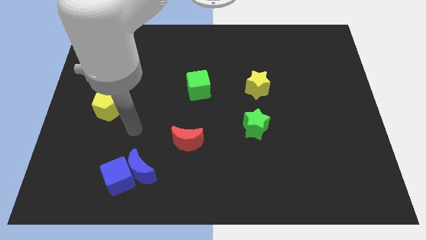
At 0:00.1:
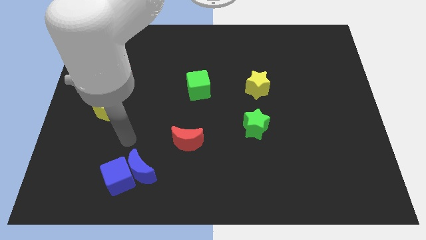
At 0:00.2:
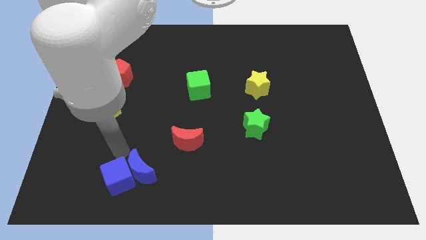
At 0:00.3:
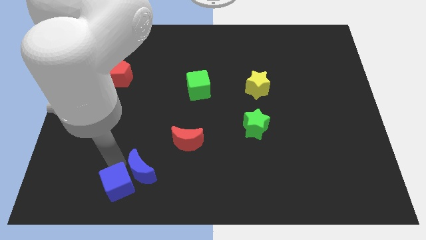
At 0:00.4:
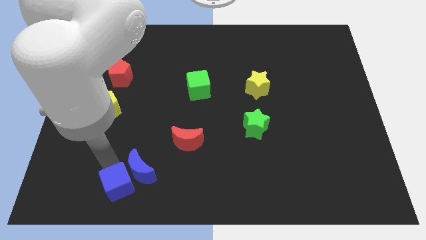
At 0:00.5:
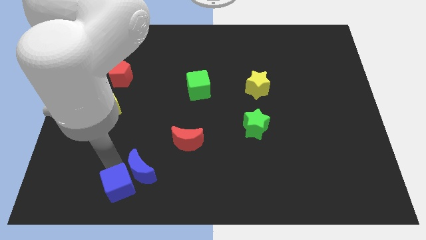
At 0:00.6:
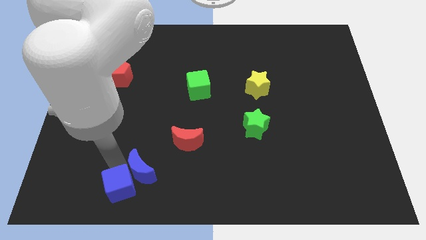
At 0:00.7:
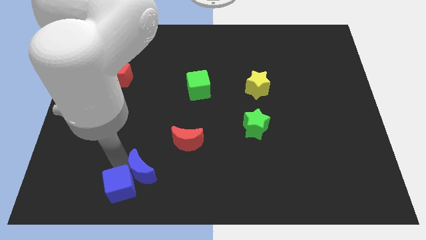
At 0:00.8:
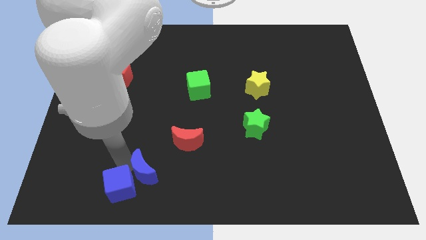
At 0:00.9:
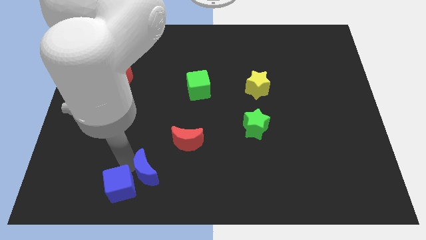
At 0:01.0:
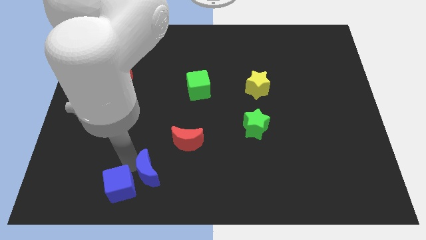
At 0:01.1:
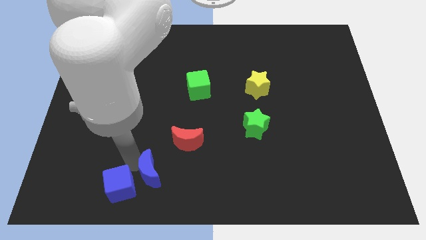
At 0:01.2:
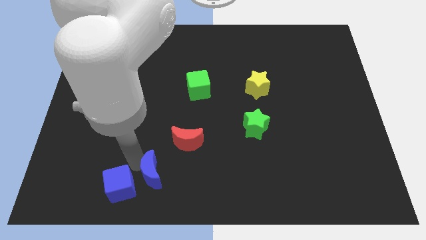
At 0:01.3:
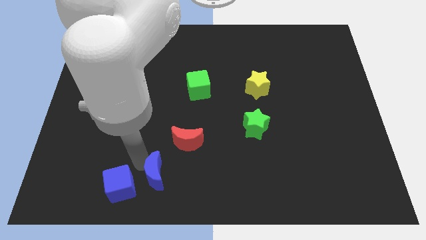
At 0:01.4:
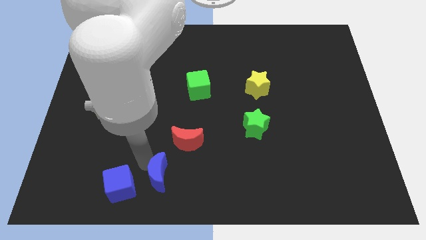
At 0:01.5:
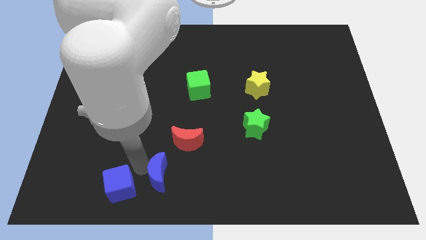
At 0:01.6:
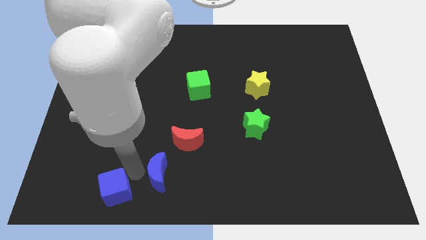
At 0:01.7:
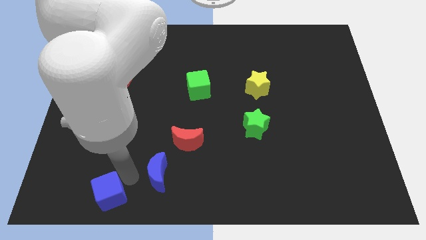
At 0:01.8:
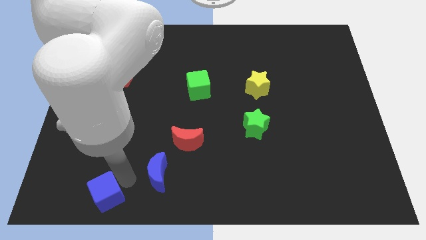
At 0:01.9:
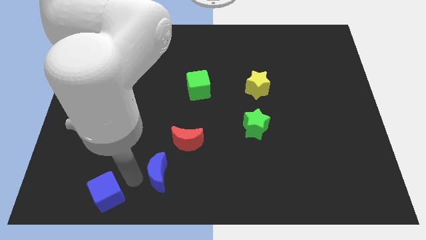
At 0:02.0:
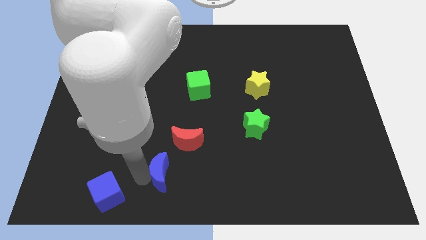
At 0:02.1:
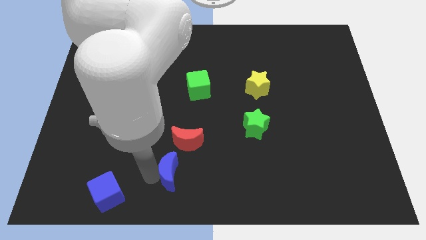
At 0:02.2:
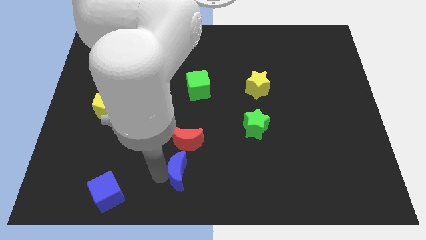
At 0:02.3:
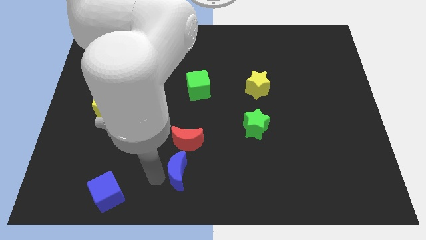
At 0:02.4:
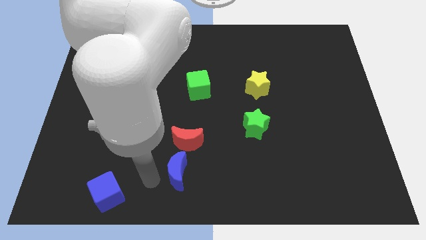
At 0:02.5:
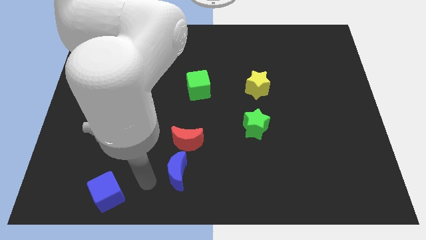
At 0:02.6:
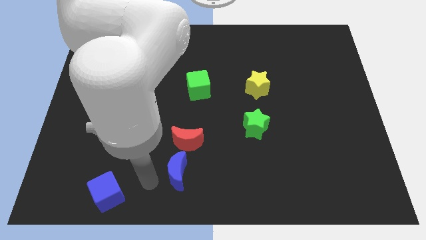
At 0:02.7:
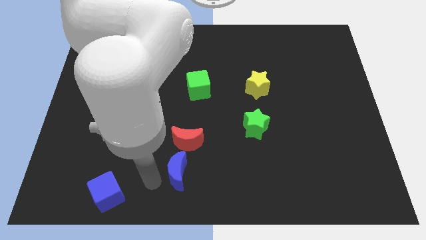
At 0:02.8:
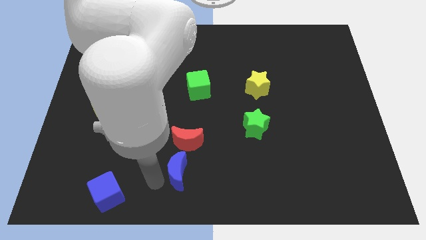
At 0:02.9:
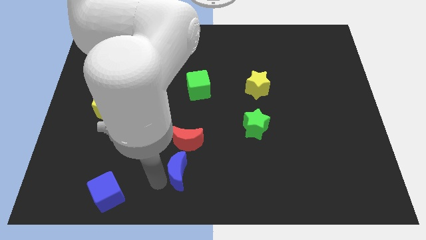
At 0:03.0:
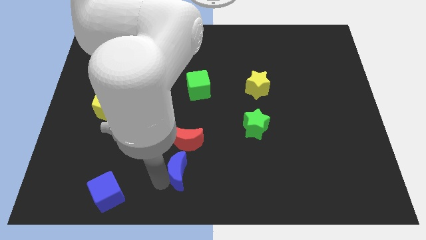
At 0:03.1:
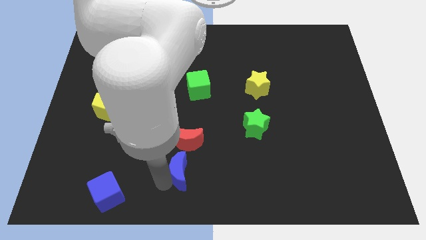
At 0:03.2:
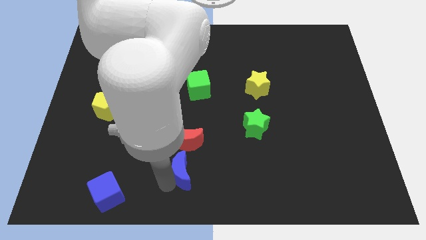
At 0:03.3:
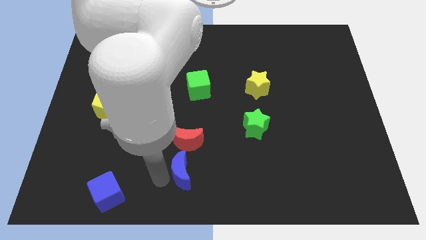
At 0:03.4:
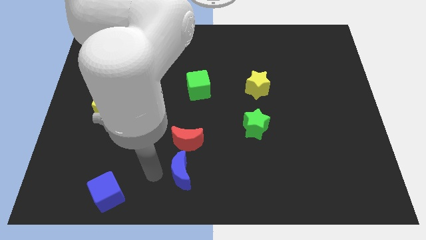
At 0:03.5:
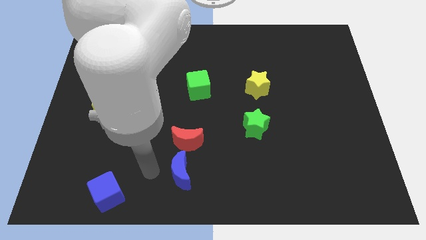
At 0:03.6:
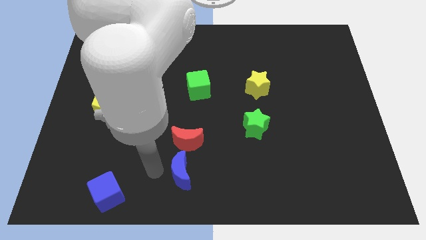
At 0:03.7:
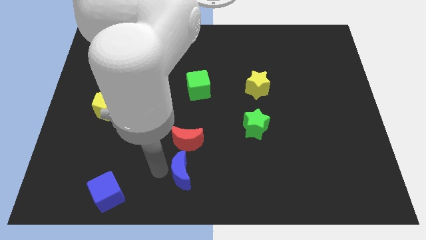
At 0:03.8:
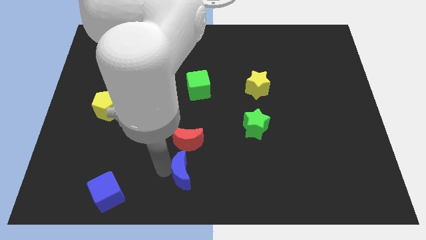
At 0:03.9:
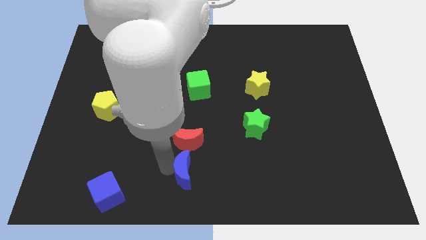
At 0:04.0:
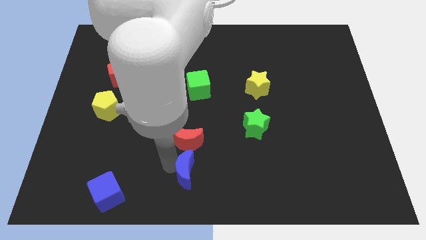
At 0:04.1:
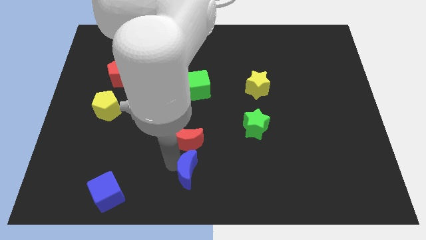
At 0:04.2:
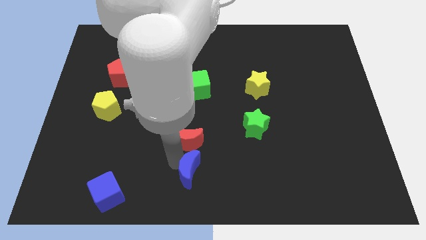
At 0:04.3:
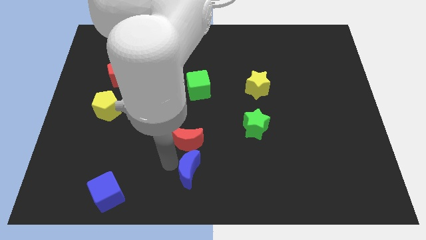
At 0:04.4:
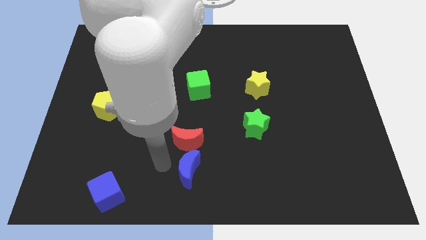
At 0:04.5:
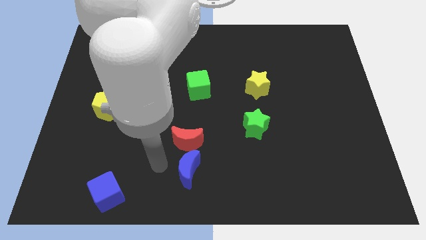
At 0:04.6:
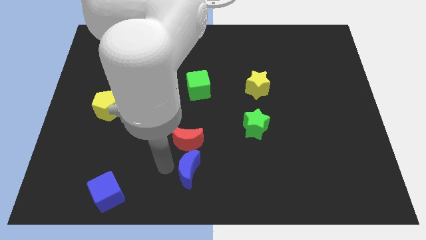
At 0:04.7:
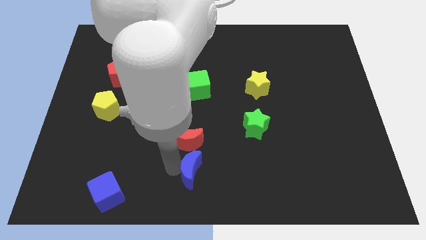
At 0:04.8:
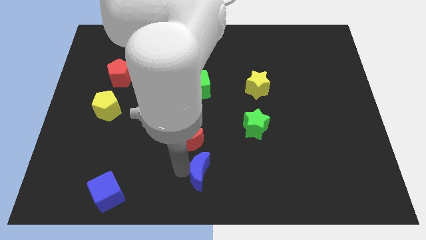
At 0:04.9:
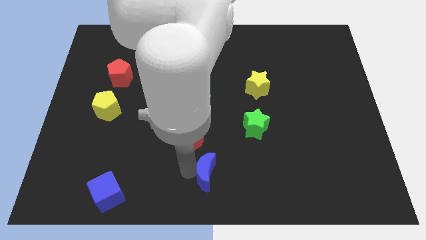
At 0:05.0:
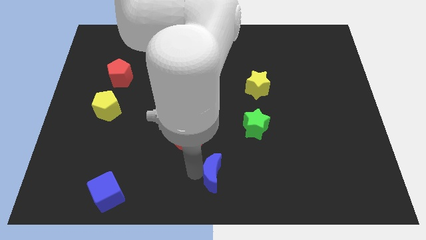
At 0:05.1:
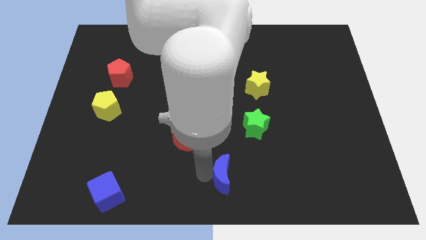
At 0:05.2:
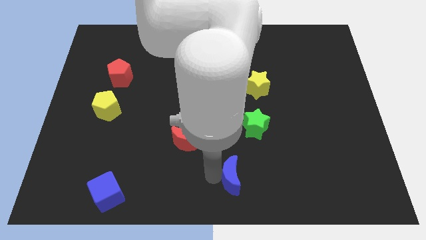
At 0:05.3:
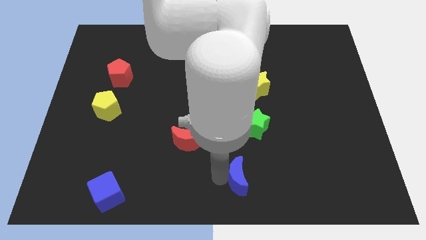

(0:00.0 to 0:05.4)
push the blue moon right

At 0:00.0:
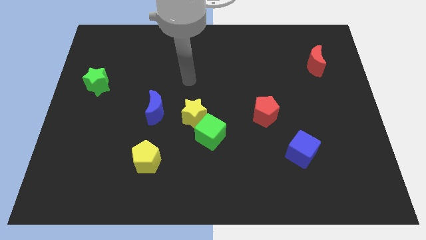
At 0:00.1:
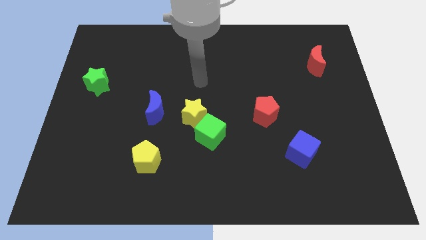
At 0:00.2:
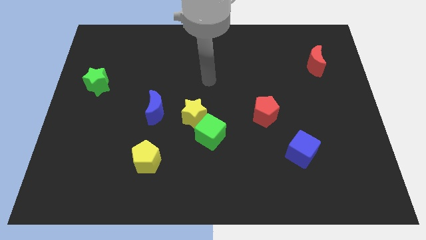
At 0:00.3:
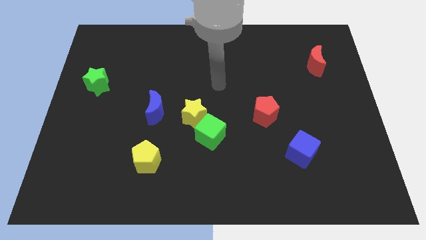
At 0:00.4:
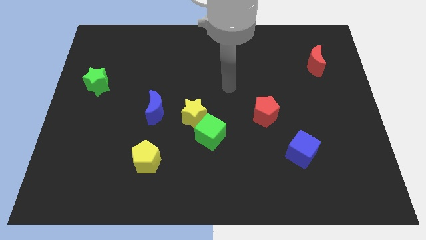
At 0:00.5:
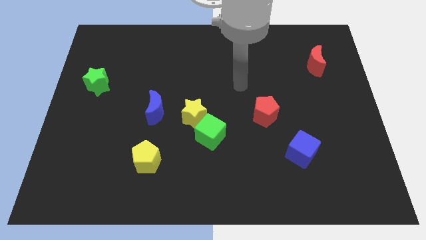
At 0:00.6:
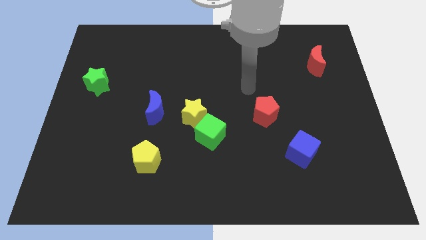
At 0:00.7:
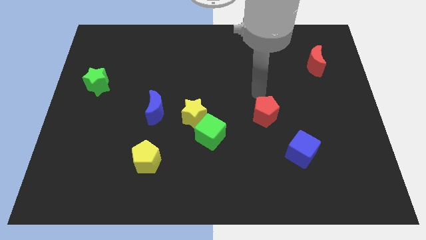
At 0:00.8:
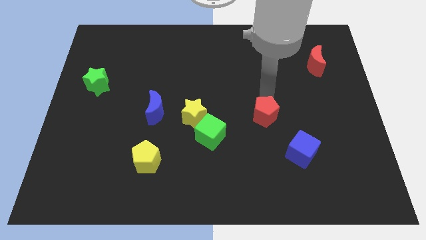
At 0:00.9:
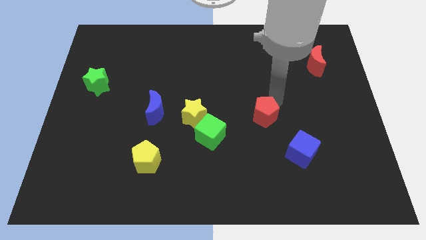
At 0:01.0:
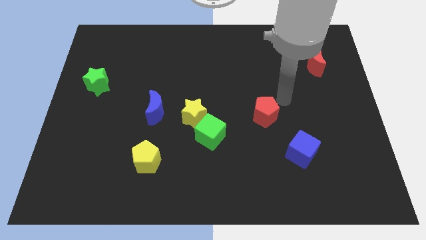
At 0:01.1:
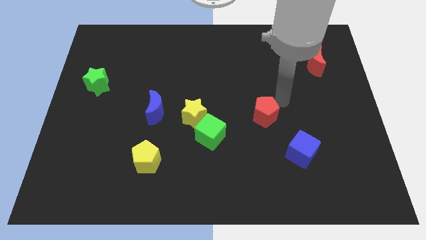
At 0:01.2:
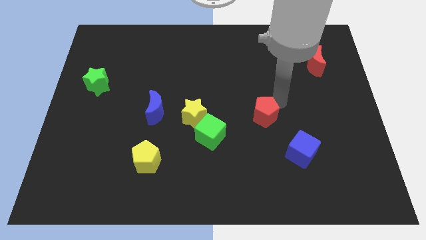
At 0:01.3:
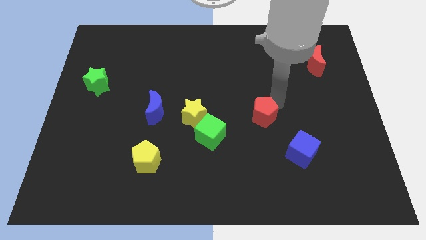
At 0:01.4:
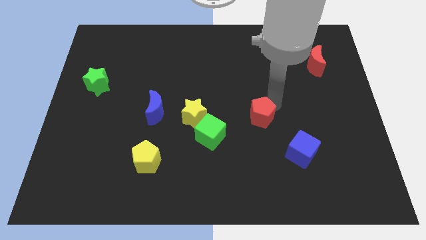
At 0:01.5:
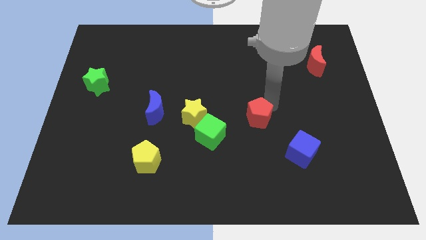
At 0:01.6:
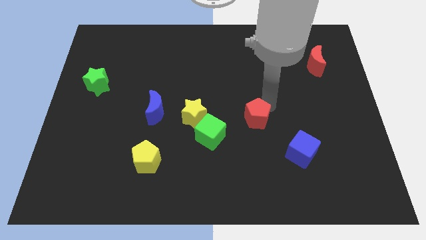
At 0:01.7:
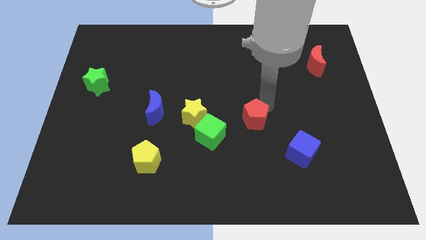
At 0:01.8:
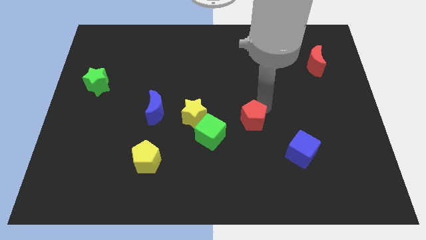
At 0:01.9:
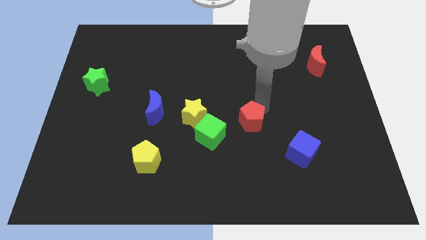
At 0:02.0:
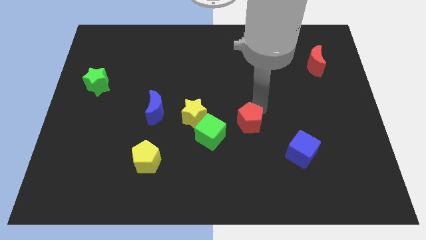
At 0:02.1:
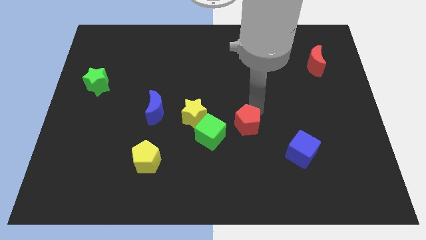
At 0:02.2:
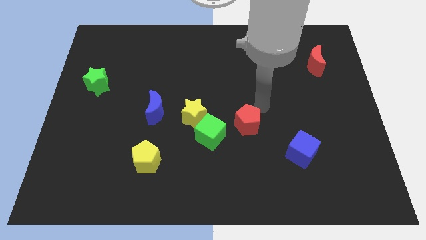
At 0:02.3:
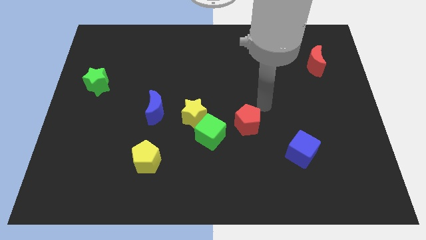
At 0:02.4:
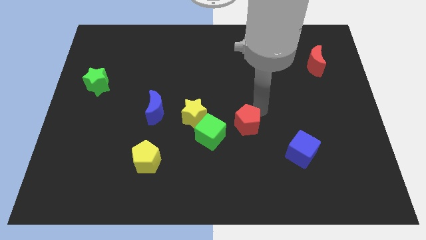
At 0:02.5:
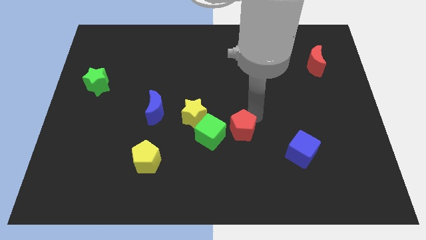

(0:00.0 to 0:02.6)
slightly slide the red pentagon down and left diagonally
